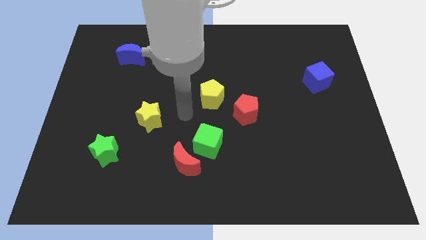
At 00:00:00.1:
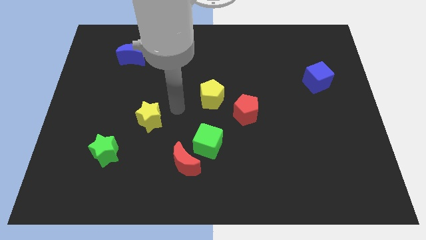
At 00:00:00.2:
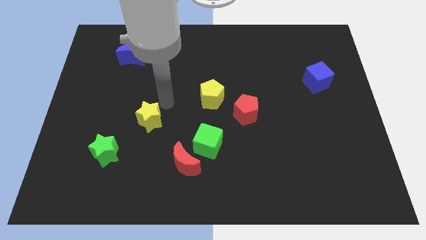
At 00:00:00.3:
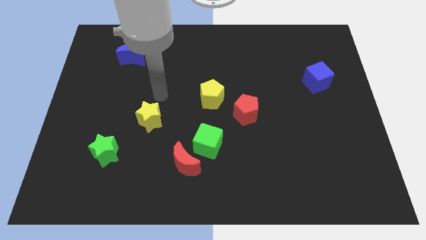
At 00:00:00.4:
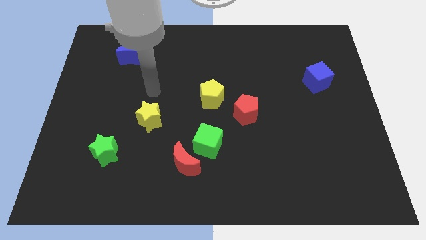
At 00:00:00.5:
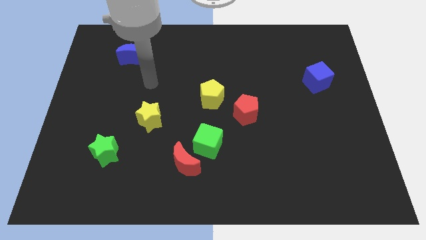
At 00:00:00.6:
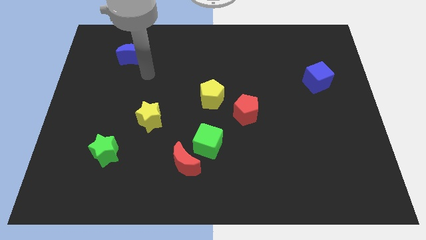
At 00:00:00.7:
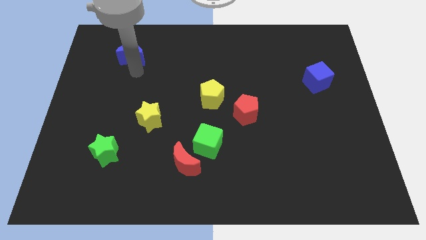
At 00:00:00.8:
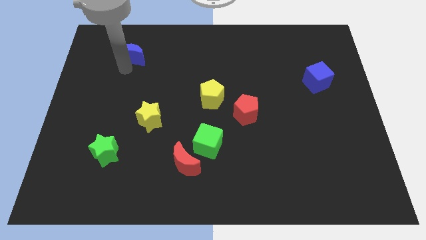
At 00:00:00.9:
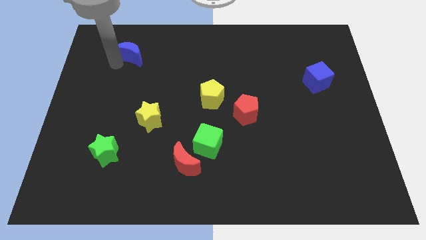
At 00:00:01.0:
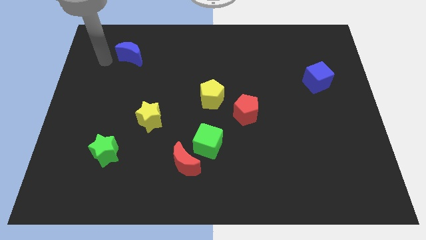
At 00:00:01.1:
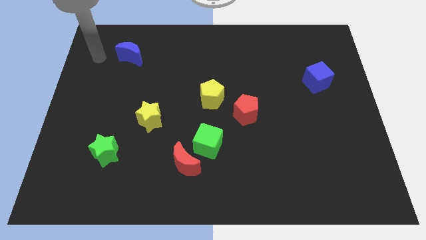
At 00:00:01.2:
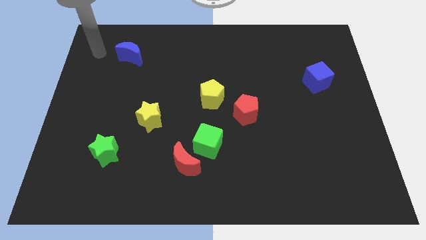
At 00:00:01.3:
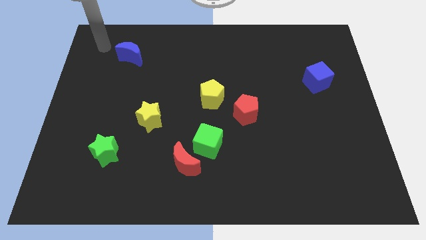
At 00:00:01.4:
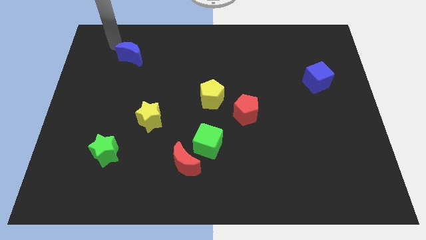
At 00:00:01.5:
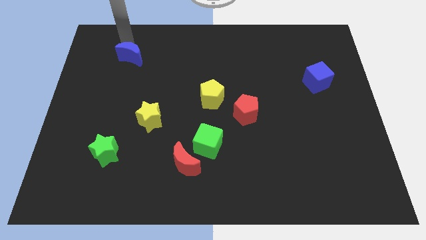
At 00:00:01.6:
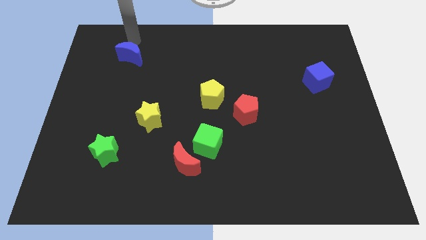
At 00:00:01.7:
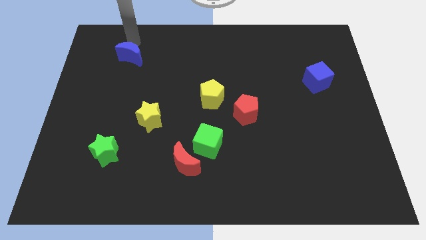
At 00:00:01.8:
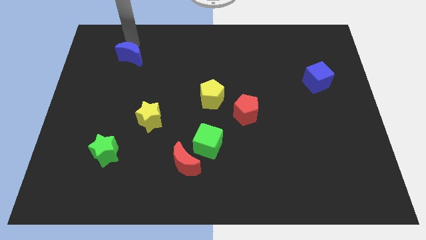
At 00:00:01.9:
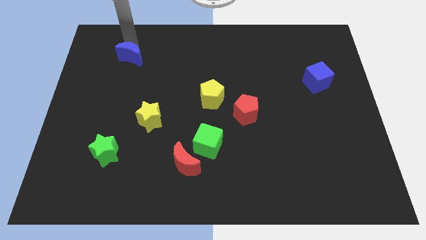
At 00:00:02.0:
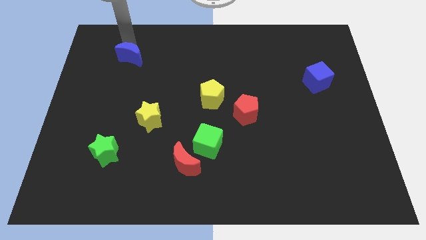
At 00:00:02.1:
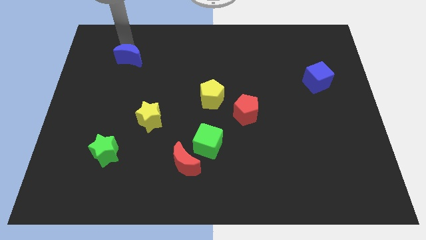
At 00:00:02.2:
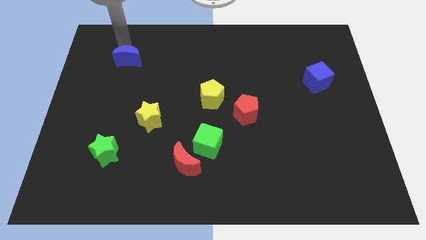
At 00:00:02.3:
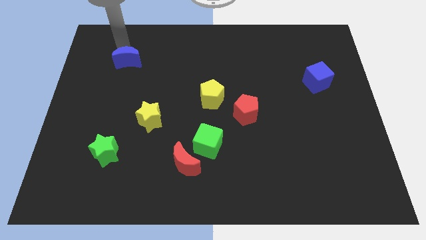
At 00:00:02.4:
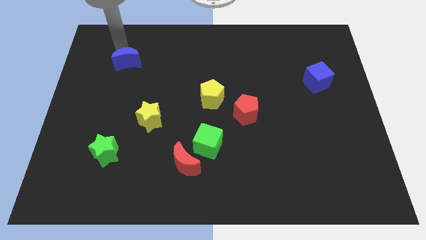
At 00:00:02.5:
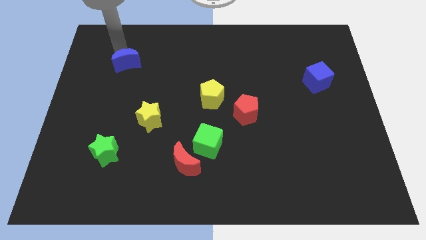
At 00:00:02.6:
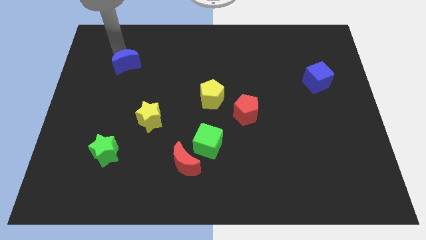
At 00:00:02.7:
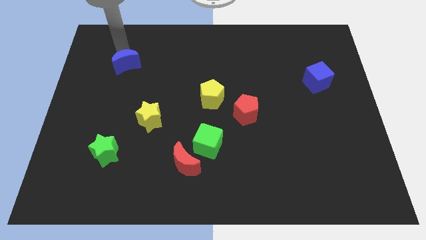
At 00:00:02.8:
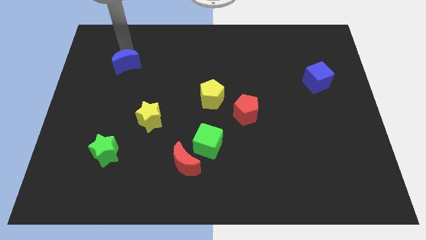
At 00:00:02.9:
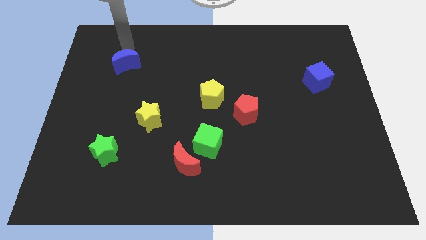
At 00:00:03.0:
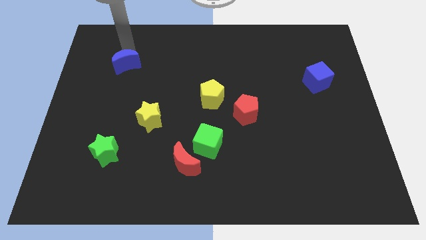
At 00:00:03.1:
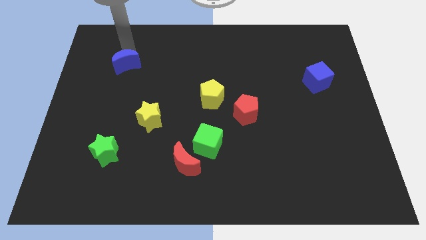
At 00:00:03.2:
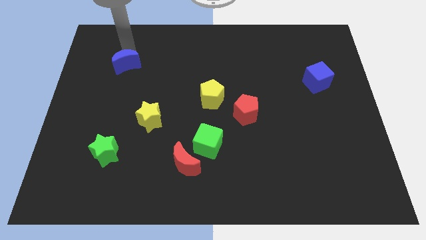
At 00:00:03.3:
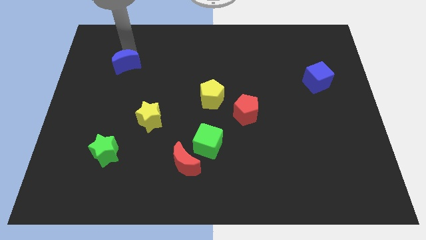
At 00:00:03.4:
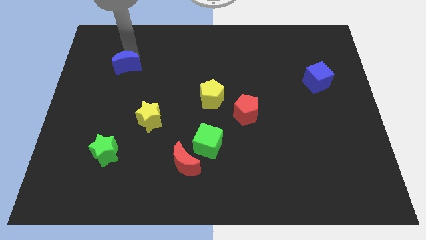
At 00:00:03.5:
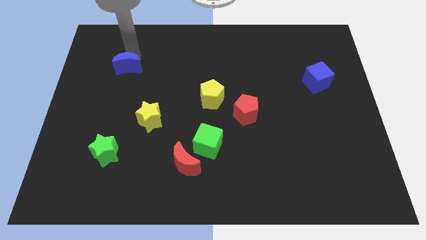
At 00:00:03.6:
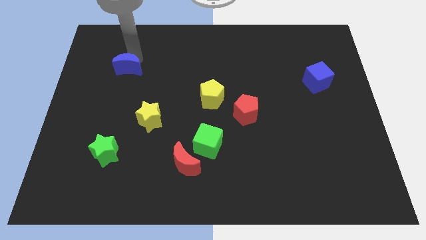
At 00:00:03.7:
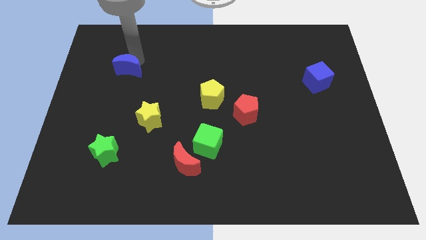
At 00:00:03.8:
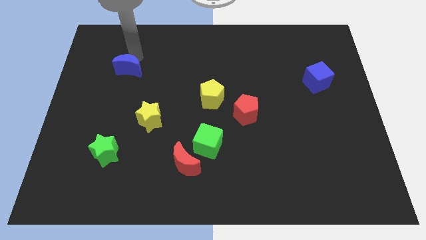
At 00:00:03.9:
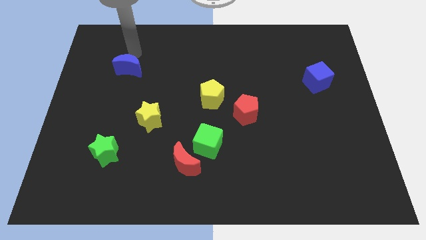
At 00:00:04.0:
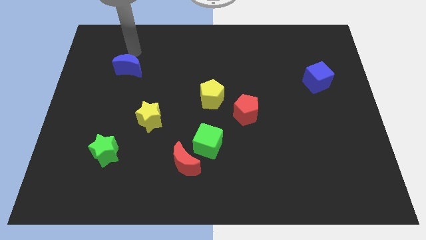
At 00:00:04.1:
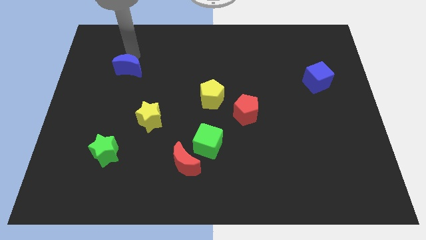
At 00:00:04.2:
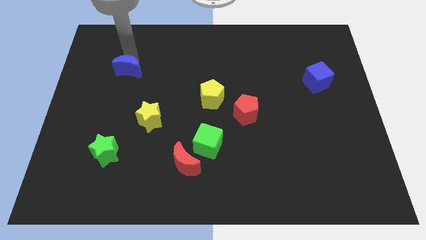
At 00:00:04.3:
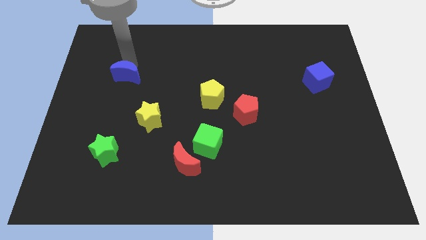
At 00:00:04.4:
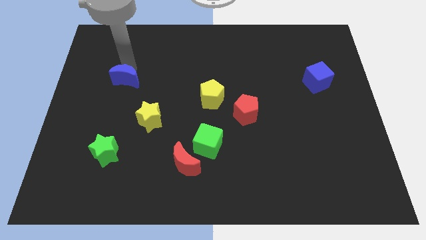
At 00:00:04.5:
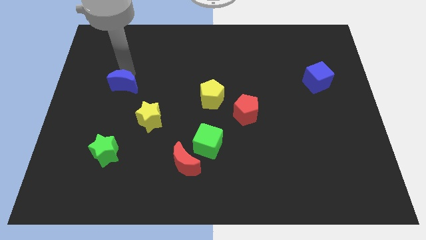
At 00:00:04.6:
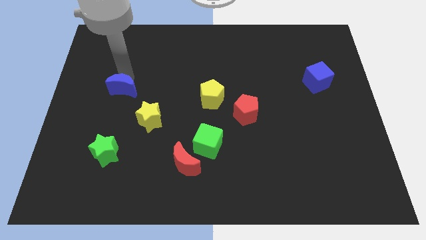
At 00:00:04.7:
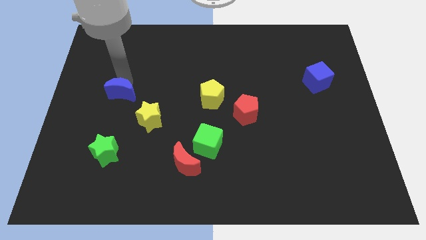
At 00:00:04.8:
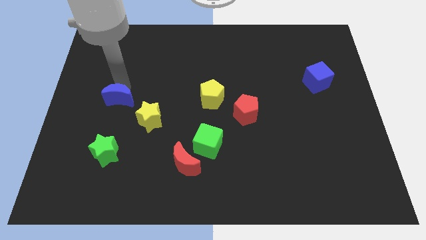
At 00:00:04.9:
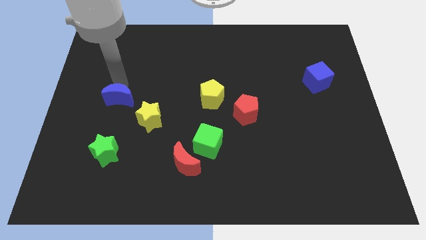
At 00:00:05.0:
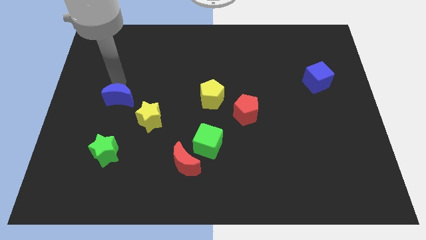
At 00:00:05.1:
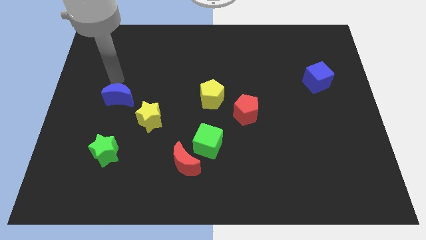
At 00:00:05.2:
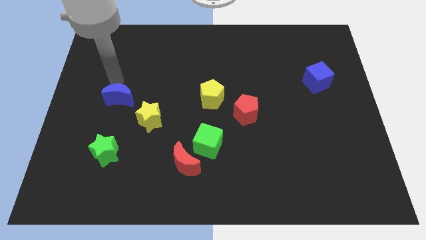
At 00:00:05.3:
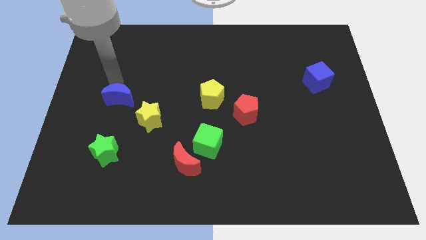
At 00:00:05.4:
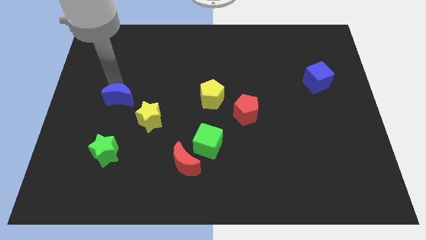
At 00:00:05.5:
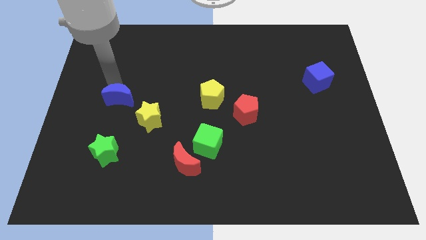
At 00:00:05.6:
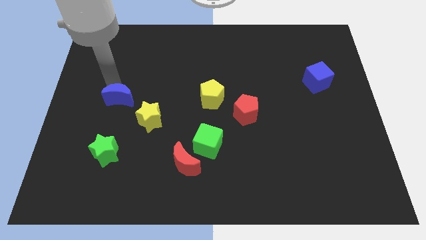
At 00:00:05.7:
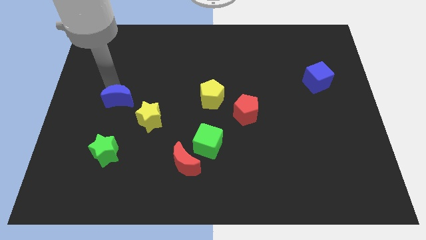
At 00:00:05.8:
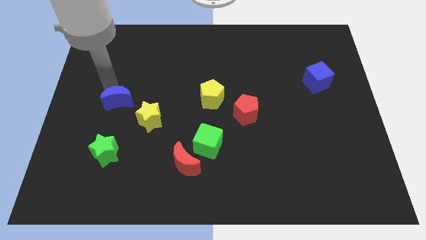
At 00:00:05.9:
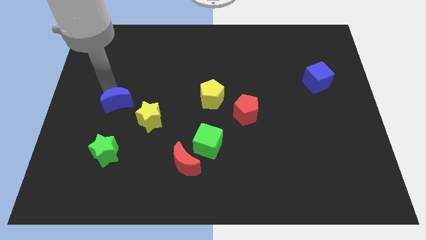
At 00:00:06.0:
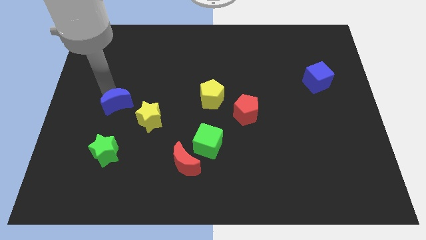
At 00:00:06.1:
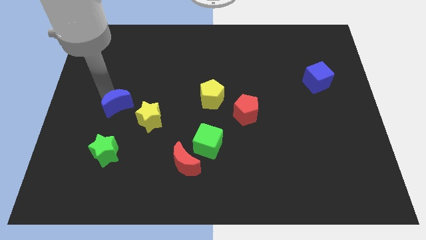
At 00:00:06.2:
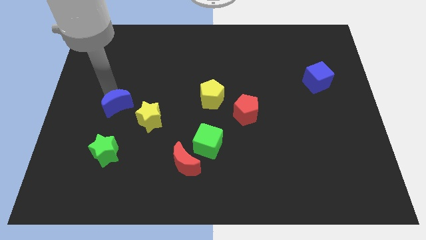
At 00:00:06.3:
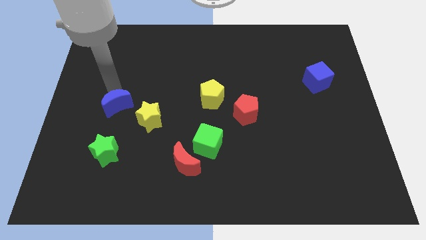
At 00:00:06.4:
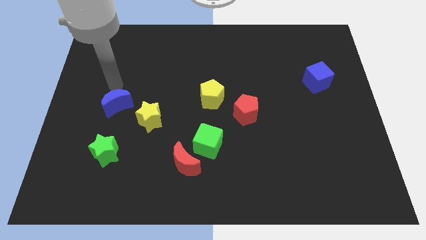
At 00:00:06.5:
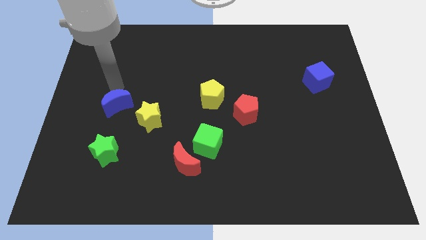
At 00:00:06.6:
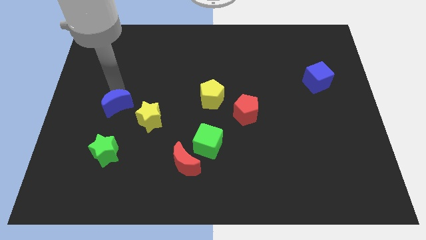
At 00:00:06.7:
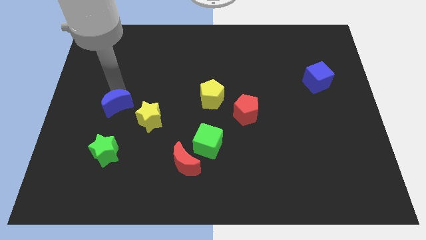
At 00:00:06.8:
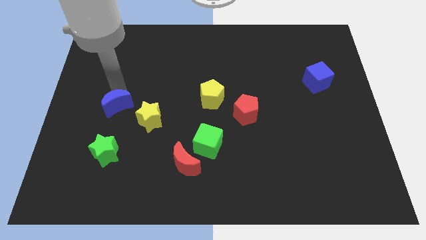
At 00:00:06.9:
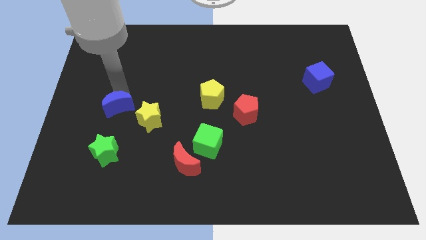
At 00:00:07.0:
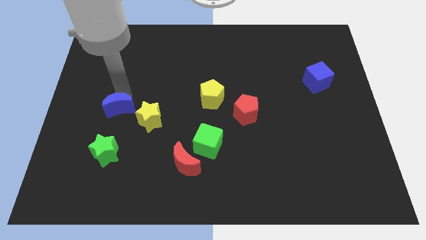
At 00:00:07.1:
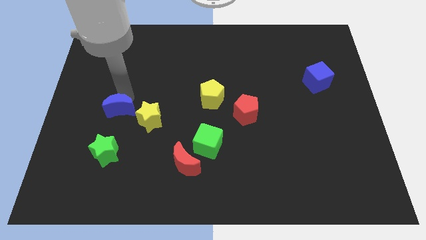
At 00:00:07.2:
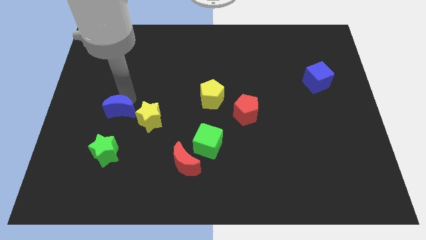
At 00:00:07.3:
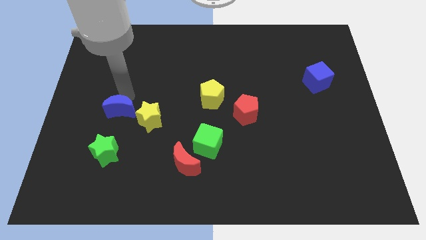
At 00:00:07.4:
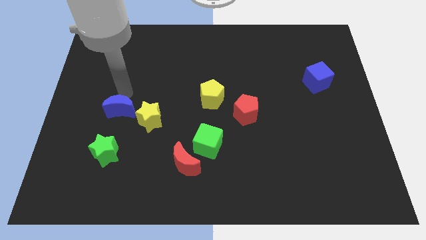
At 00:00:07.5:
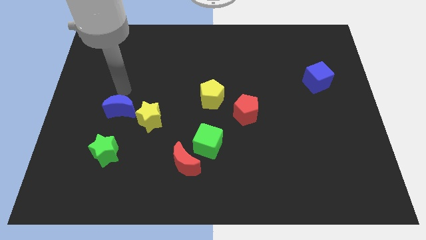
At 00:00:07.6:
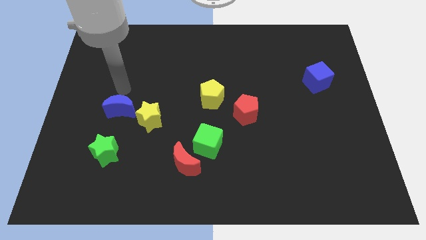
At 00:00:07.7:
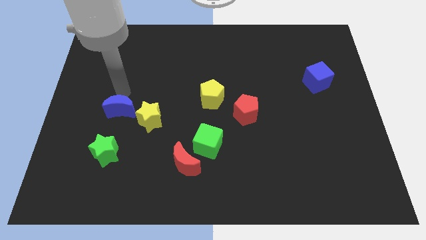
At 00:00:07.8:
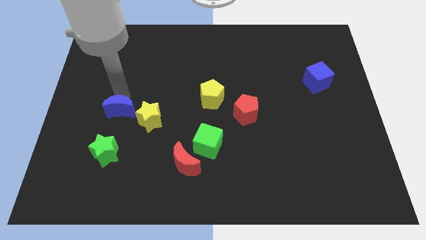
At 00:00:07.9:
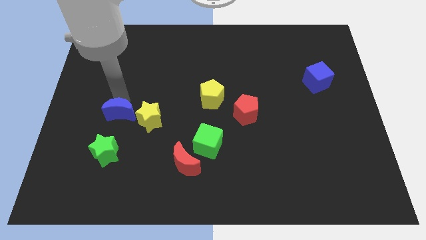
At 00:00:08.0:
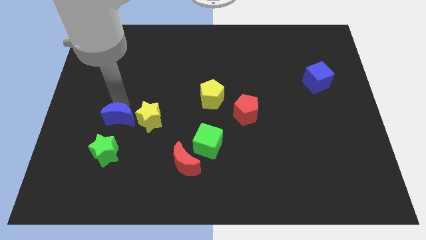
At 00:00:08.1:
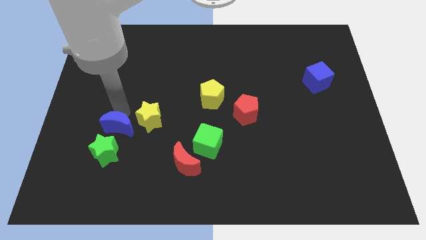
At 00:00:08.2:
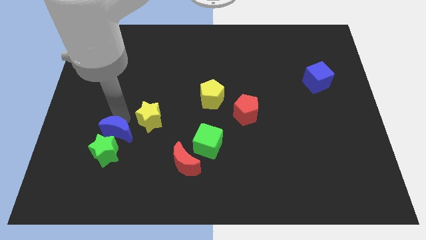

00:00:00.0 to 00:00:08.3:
move the blue moon towards the green star
